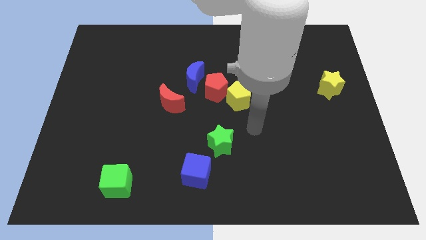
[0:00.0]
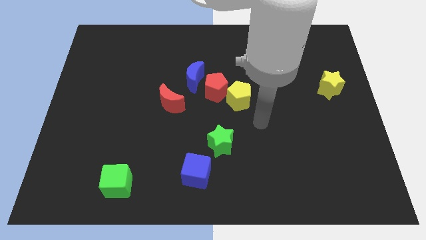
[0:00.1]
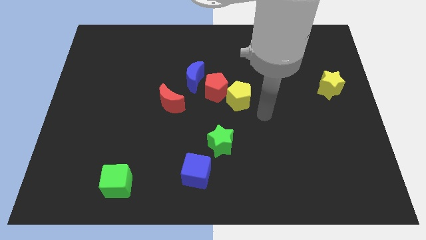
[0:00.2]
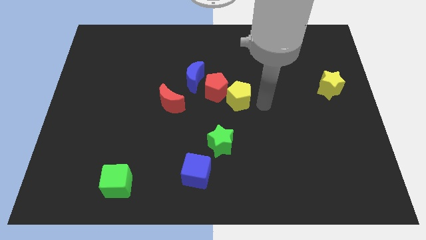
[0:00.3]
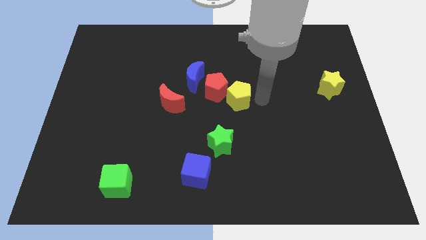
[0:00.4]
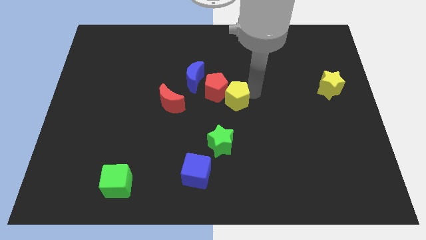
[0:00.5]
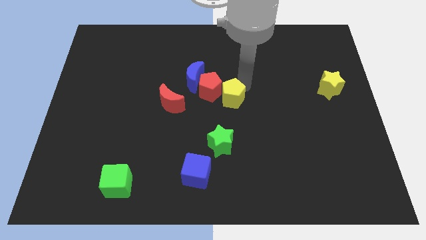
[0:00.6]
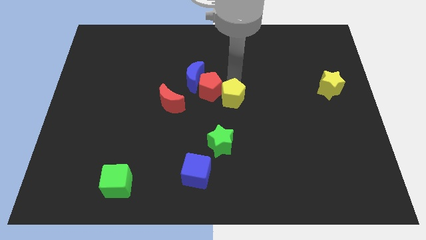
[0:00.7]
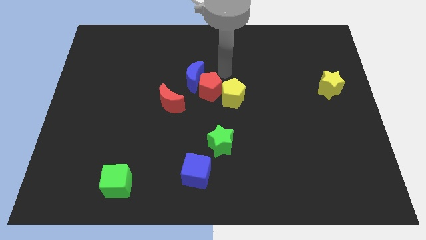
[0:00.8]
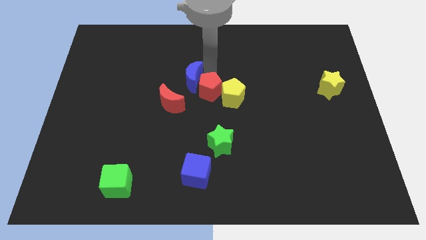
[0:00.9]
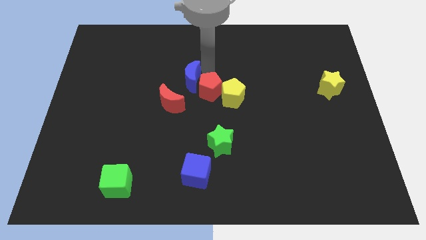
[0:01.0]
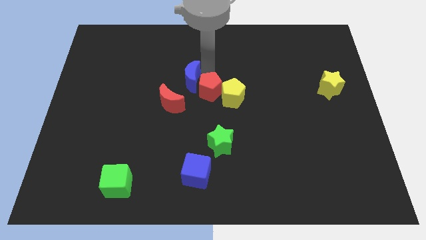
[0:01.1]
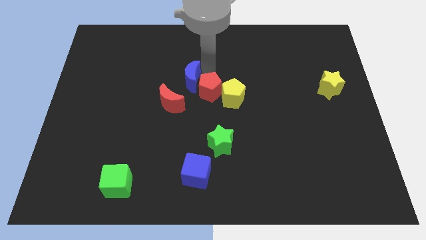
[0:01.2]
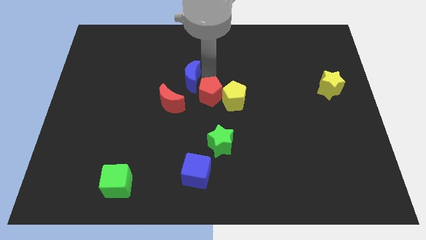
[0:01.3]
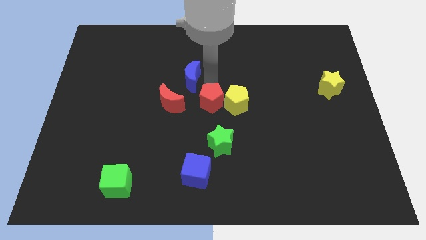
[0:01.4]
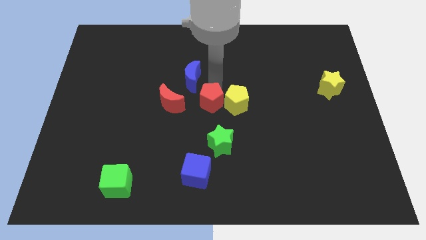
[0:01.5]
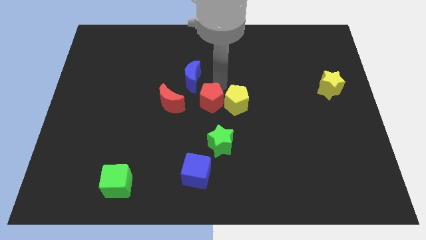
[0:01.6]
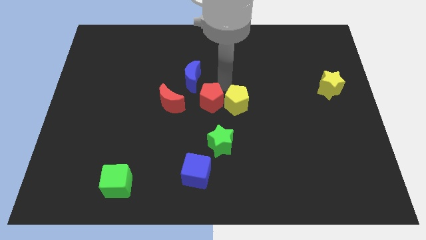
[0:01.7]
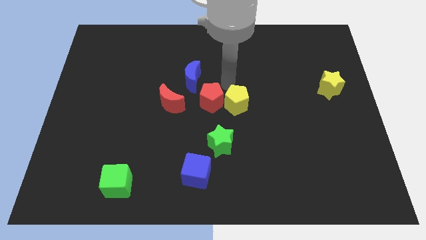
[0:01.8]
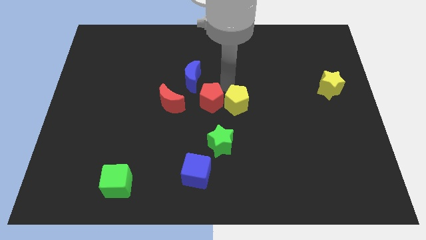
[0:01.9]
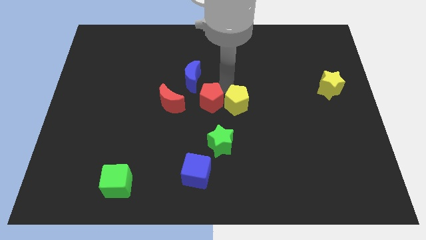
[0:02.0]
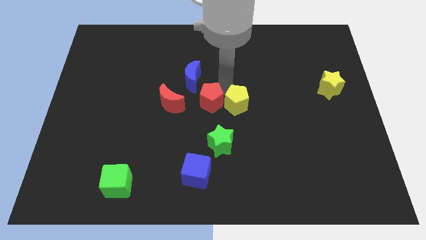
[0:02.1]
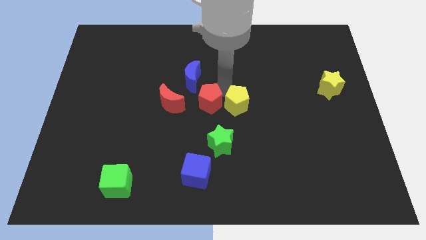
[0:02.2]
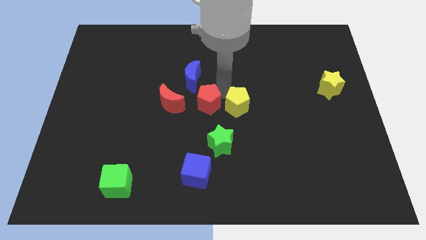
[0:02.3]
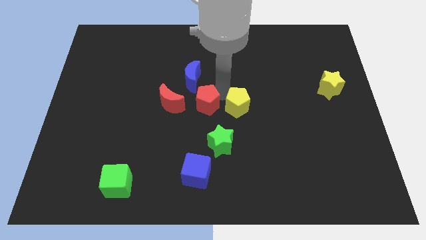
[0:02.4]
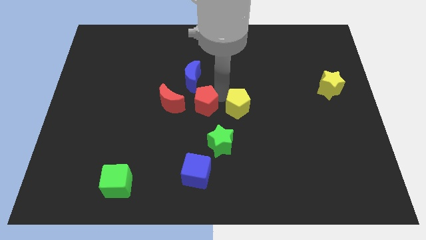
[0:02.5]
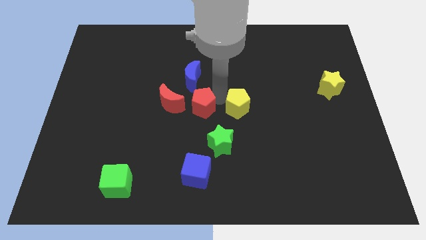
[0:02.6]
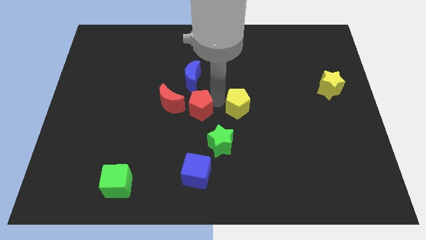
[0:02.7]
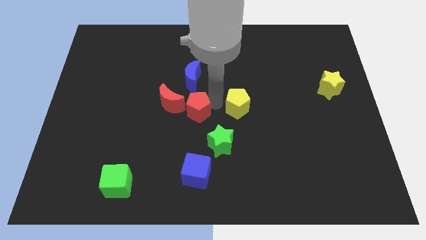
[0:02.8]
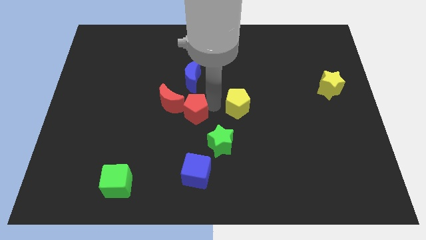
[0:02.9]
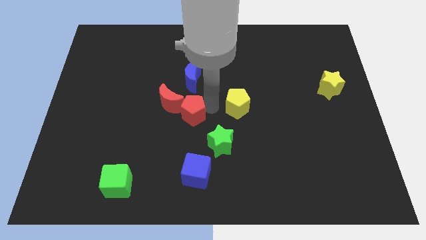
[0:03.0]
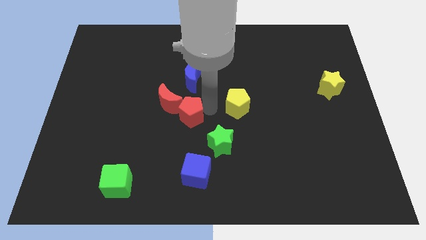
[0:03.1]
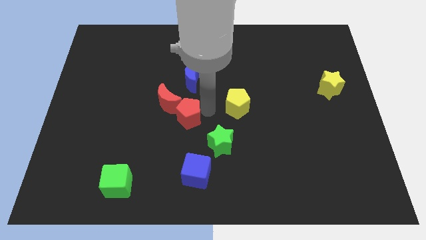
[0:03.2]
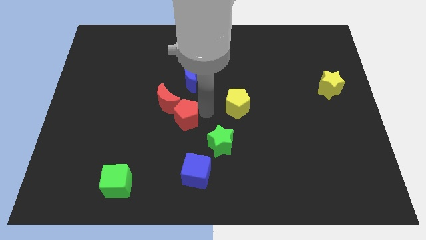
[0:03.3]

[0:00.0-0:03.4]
separate the red pentagon from the blue moon and yellow pentagon

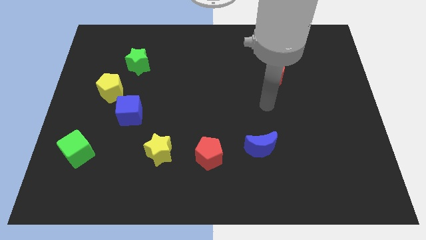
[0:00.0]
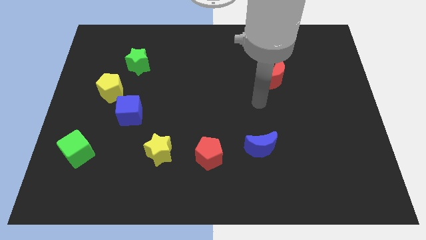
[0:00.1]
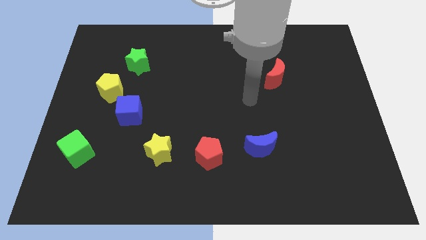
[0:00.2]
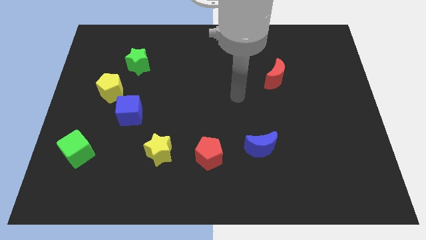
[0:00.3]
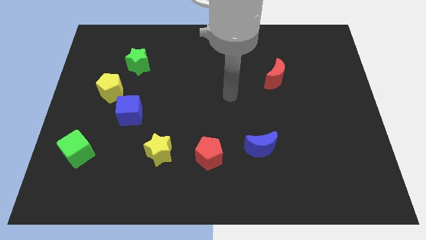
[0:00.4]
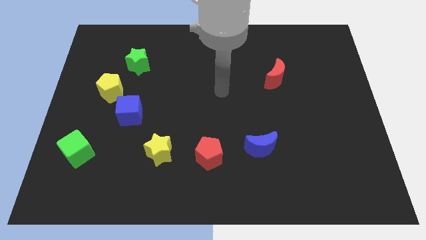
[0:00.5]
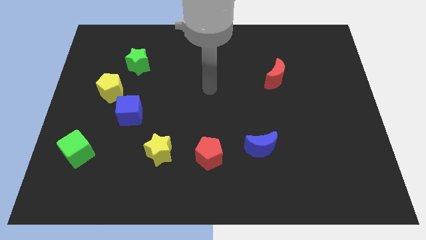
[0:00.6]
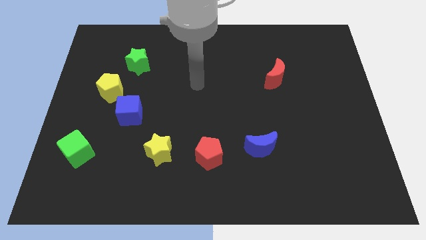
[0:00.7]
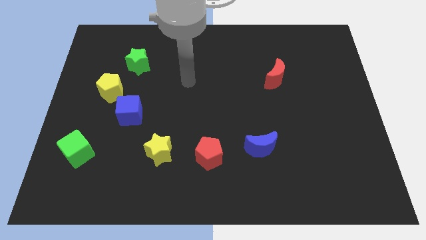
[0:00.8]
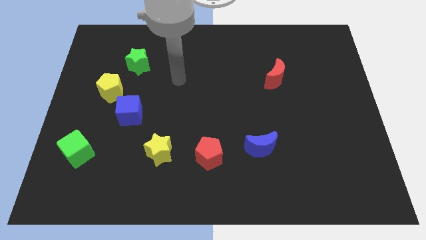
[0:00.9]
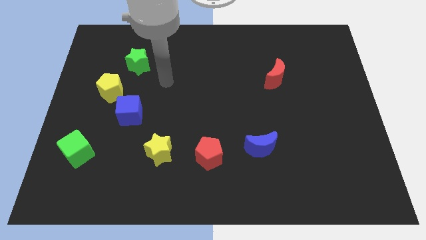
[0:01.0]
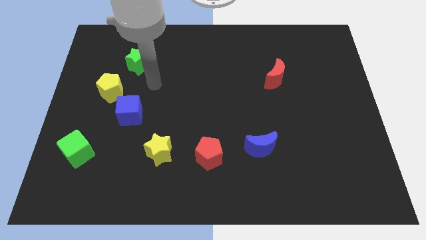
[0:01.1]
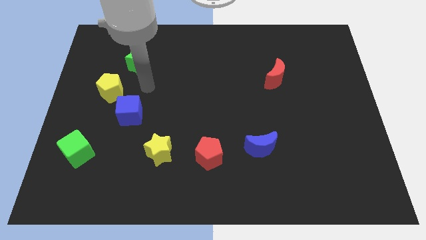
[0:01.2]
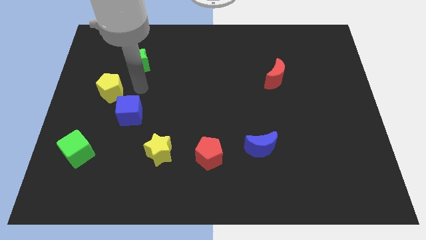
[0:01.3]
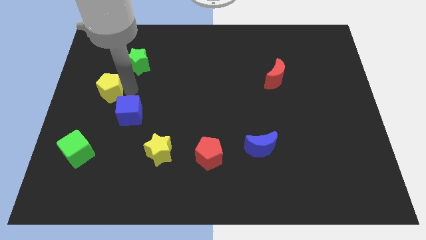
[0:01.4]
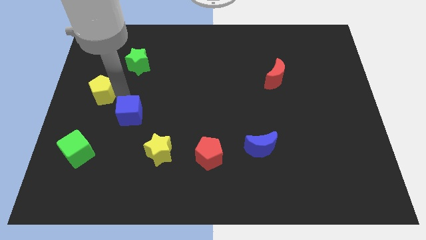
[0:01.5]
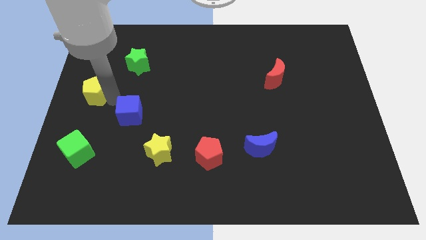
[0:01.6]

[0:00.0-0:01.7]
pull the blue cube apart from the yellow pentagon

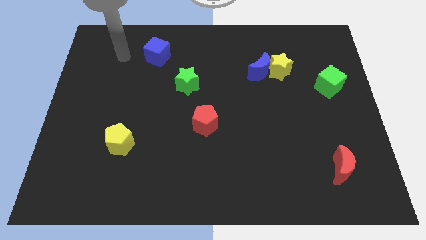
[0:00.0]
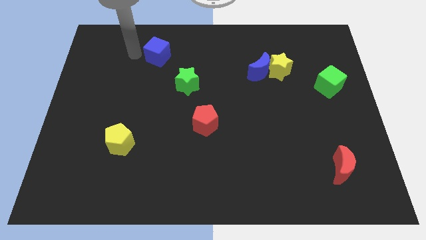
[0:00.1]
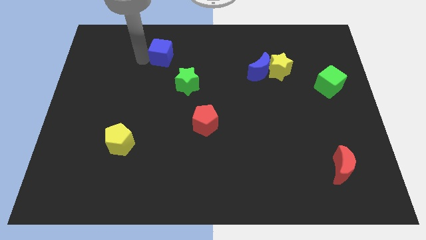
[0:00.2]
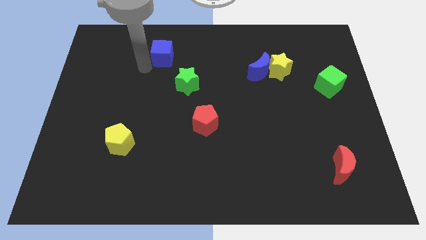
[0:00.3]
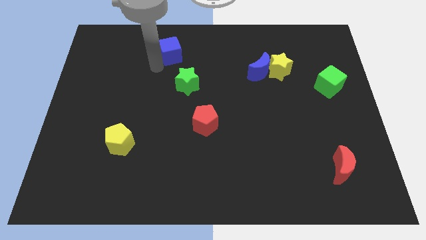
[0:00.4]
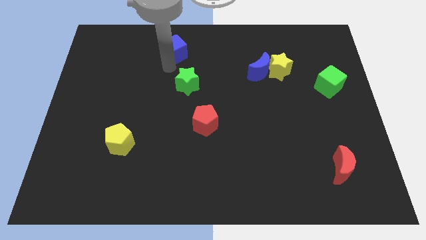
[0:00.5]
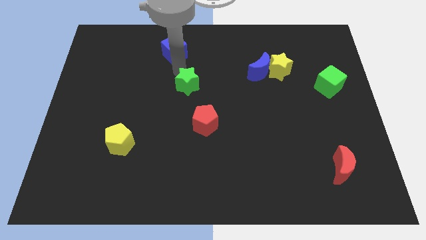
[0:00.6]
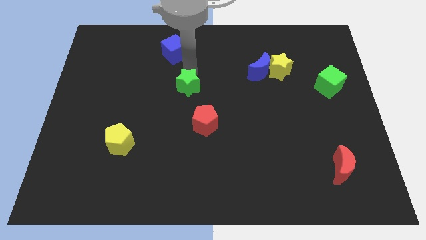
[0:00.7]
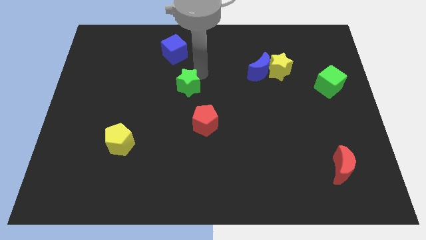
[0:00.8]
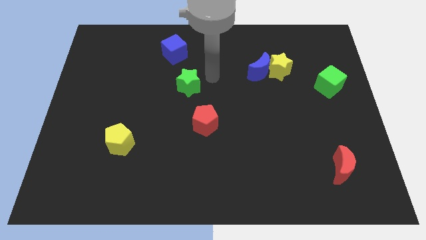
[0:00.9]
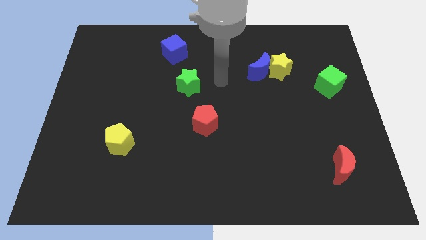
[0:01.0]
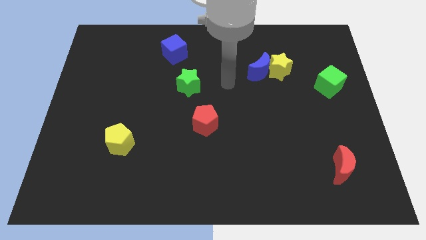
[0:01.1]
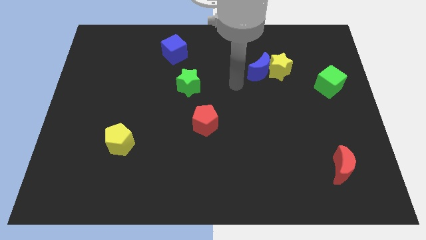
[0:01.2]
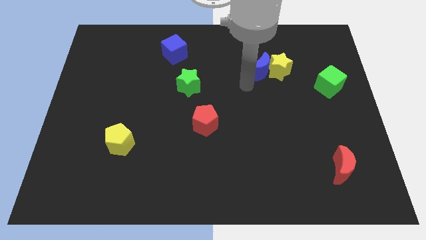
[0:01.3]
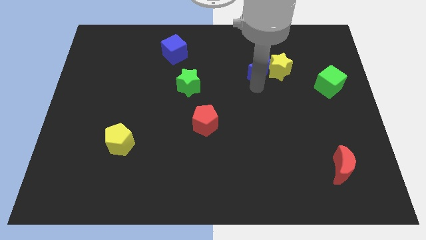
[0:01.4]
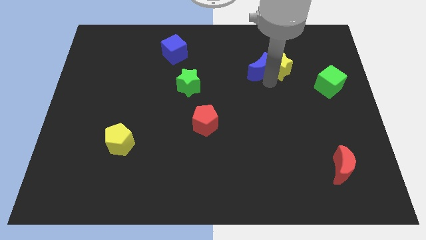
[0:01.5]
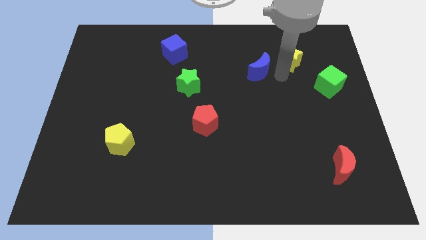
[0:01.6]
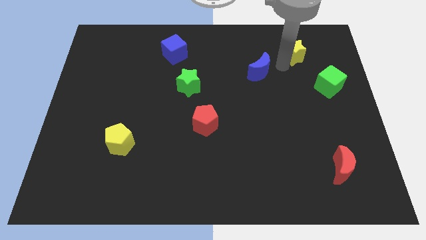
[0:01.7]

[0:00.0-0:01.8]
separate the blue moon from the yellow star

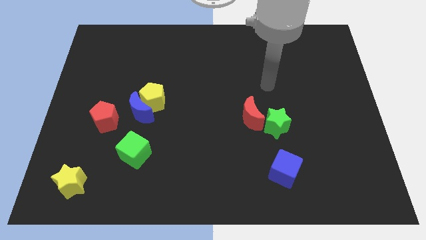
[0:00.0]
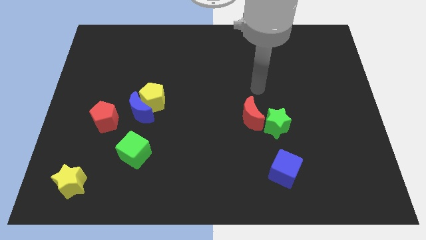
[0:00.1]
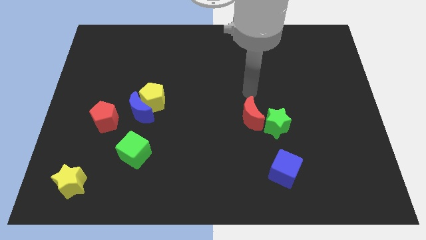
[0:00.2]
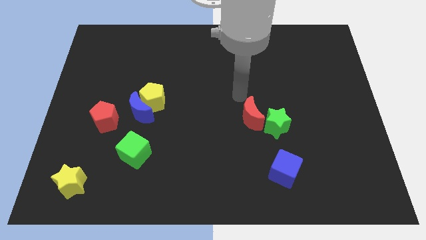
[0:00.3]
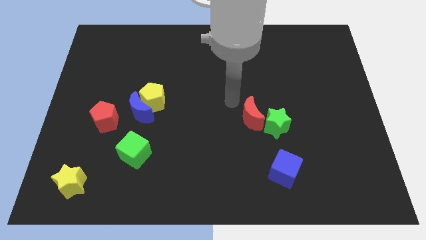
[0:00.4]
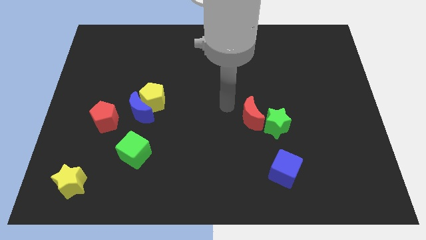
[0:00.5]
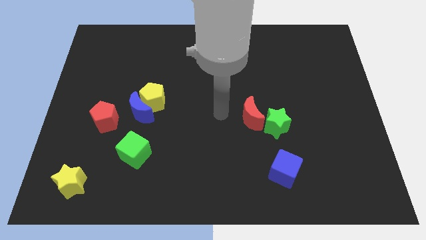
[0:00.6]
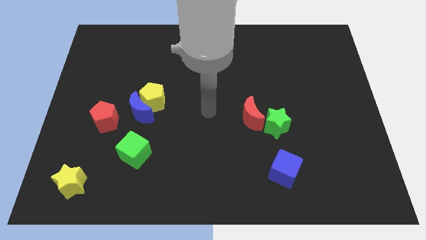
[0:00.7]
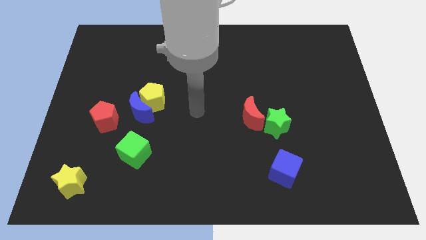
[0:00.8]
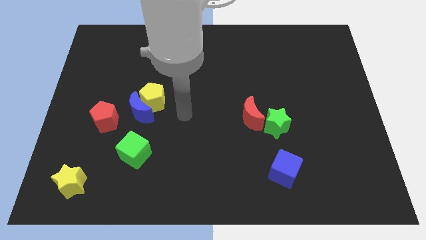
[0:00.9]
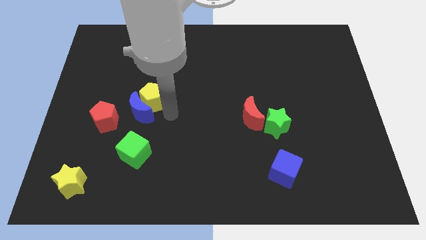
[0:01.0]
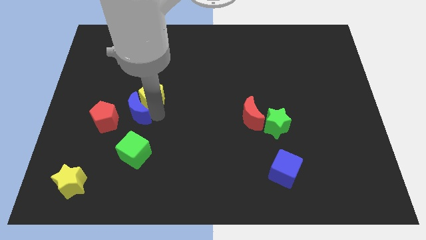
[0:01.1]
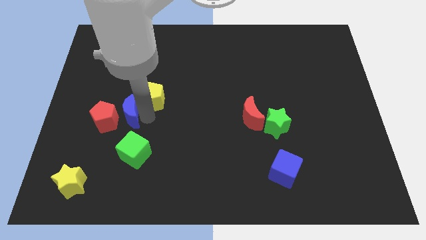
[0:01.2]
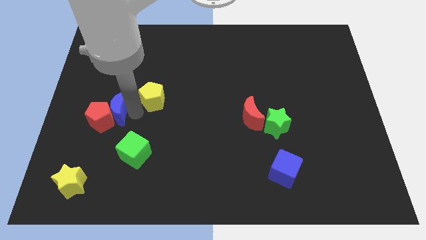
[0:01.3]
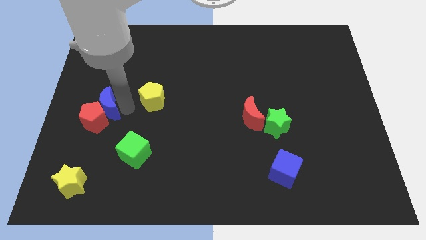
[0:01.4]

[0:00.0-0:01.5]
pull the yellow pentagon apart from the blue moon

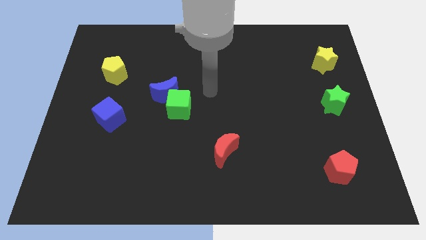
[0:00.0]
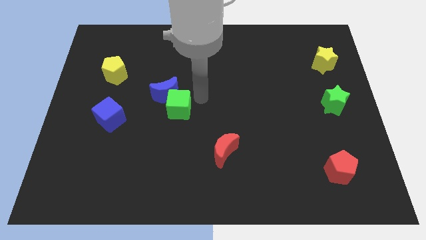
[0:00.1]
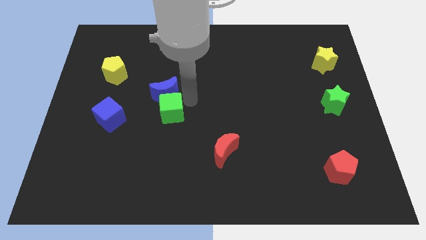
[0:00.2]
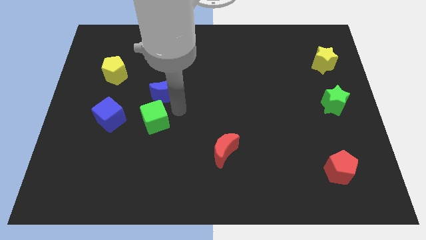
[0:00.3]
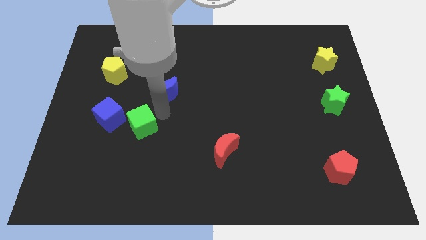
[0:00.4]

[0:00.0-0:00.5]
separate the blue moon from the green cube

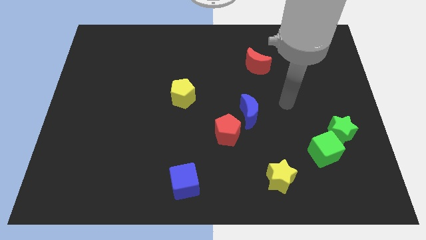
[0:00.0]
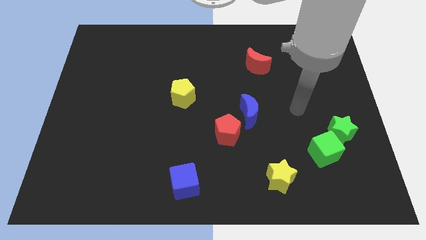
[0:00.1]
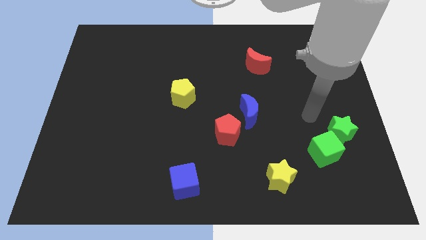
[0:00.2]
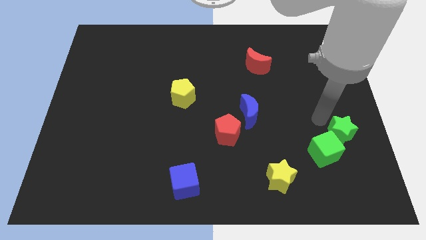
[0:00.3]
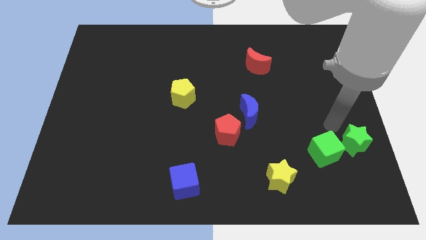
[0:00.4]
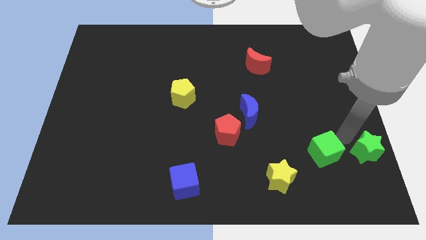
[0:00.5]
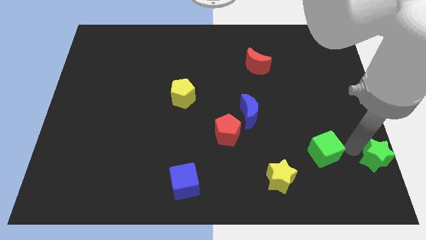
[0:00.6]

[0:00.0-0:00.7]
pull the green cube apart from the green star
